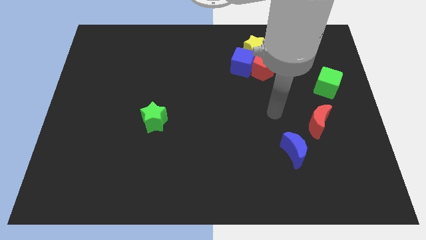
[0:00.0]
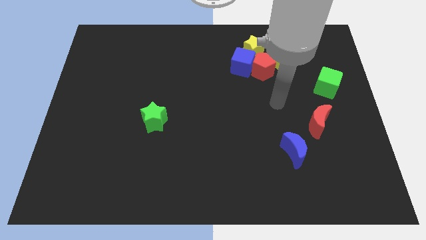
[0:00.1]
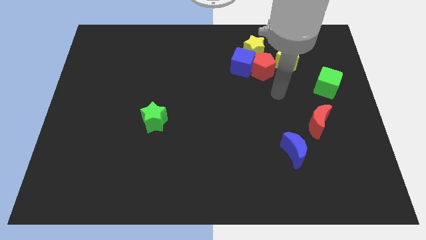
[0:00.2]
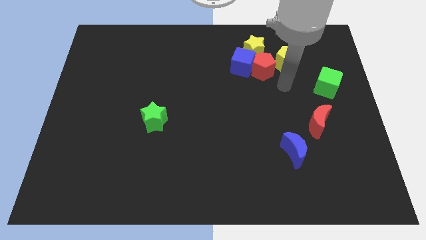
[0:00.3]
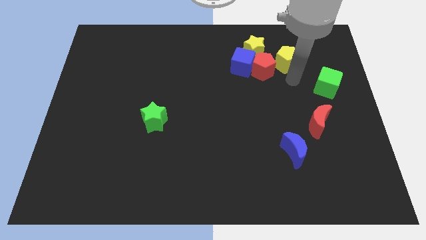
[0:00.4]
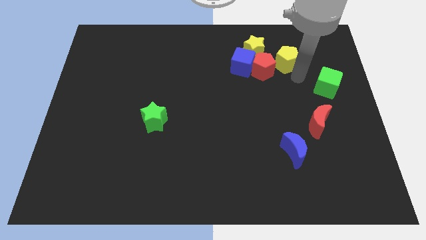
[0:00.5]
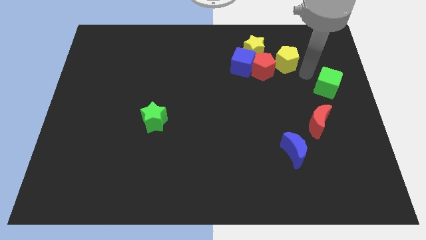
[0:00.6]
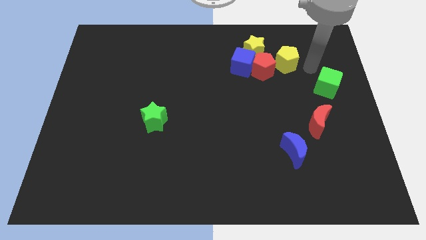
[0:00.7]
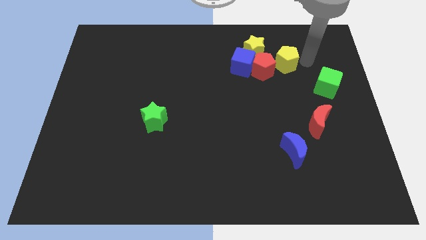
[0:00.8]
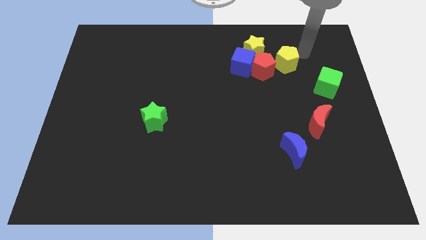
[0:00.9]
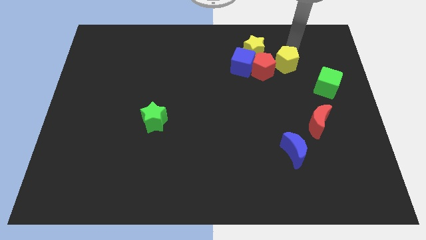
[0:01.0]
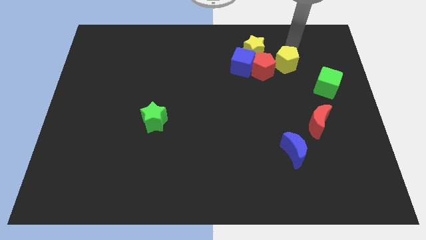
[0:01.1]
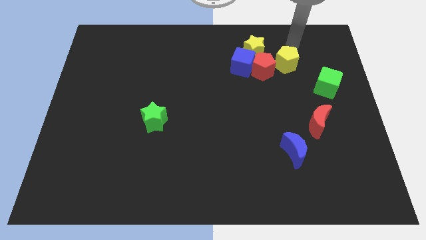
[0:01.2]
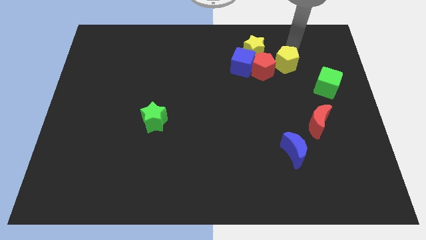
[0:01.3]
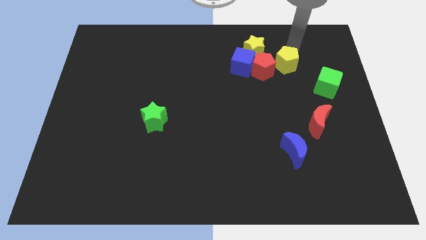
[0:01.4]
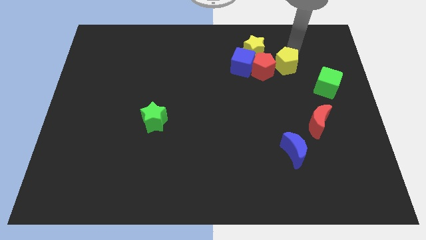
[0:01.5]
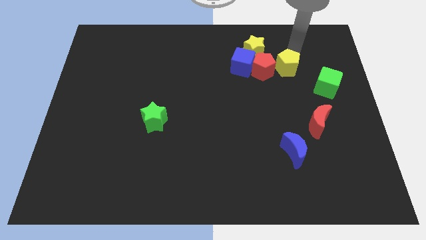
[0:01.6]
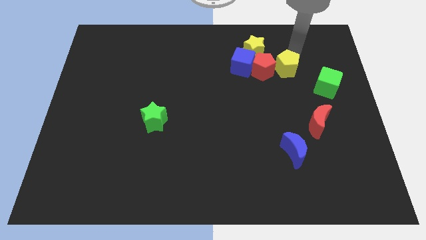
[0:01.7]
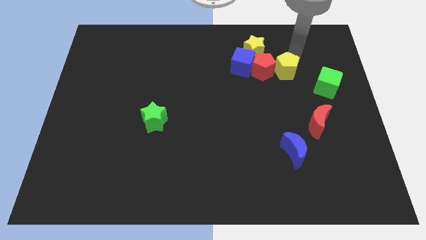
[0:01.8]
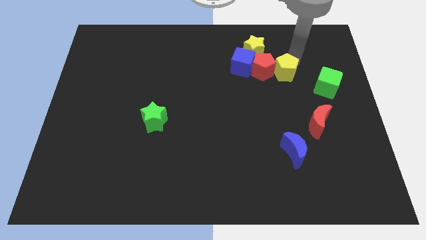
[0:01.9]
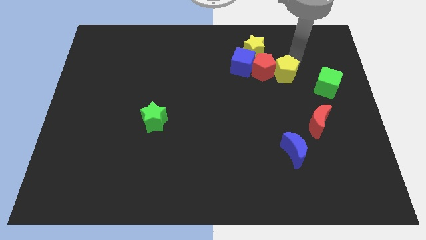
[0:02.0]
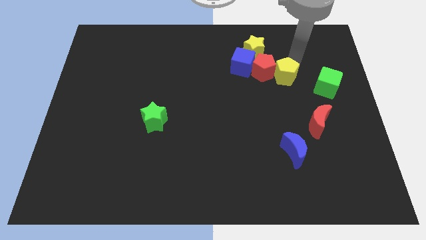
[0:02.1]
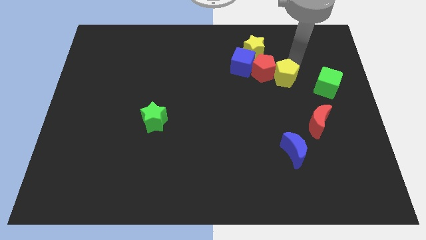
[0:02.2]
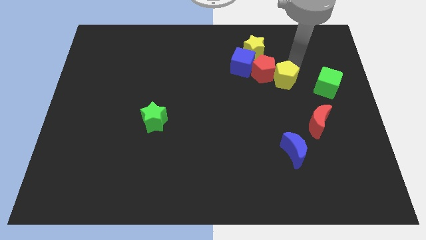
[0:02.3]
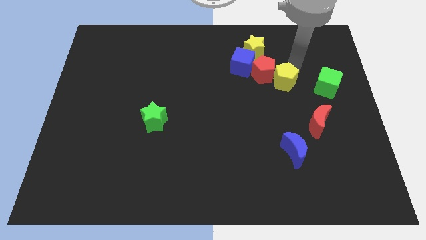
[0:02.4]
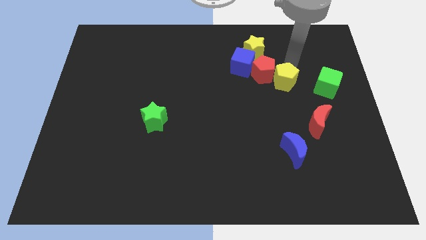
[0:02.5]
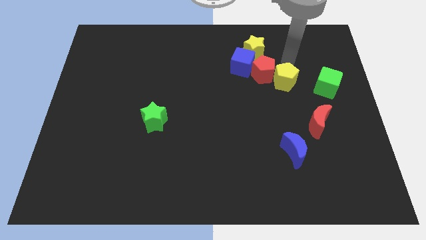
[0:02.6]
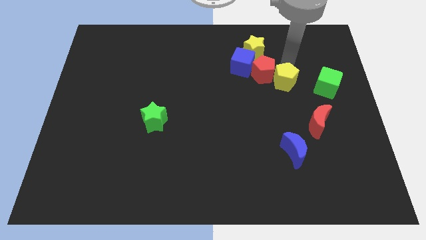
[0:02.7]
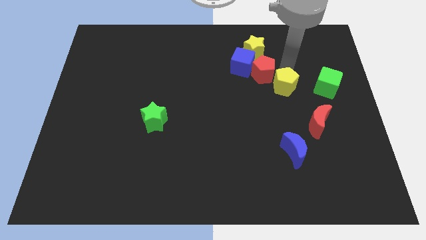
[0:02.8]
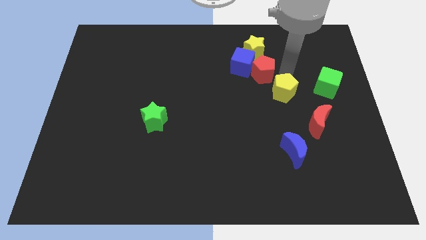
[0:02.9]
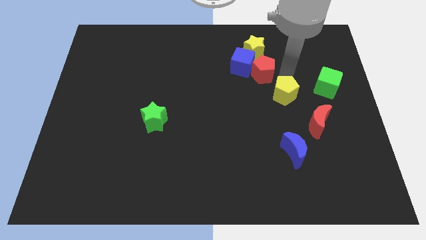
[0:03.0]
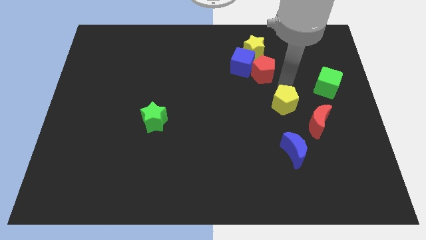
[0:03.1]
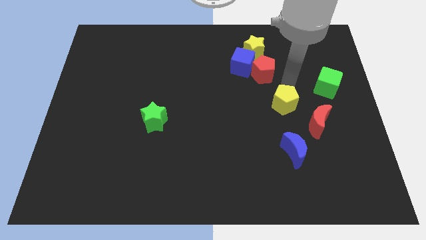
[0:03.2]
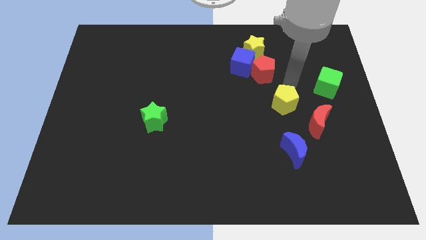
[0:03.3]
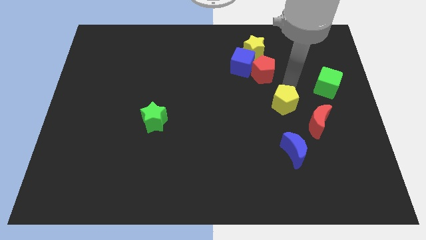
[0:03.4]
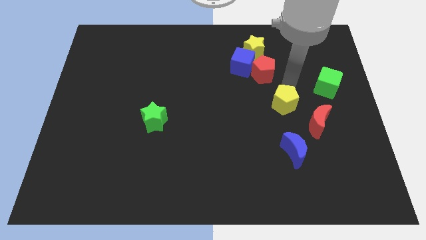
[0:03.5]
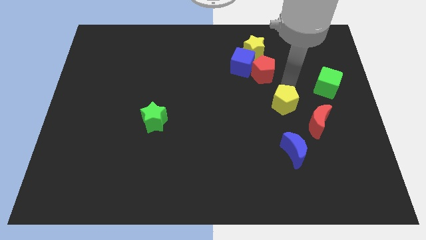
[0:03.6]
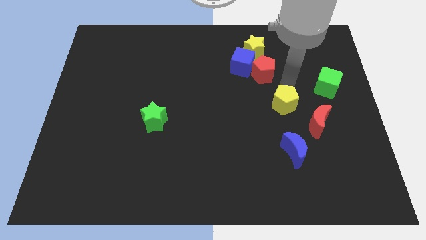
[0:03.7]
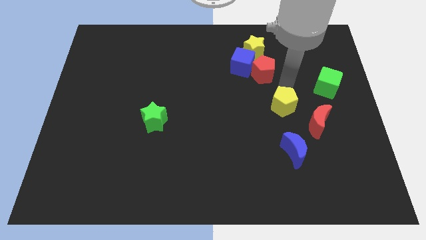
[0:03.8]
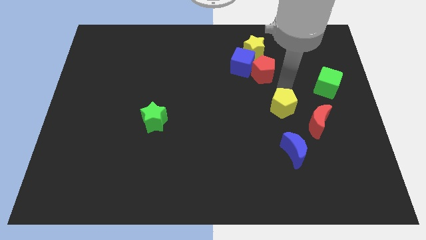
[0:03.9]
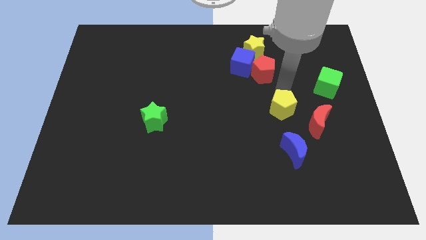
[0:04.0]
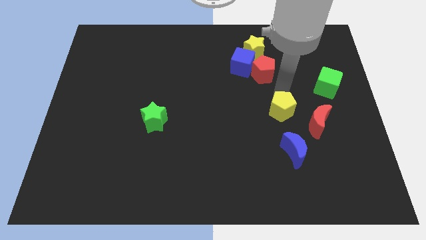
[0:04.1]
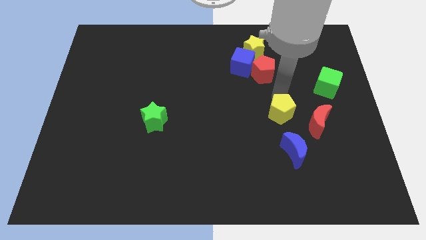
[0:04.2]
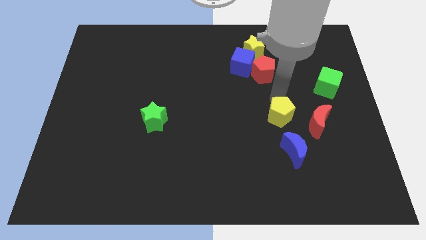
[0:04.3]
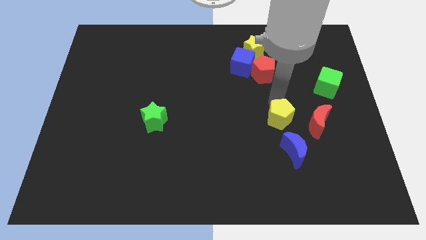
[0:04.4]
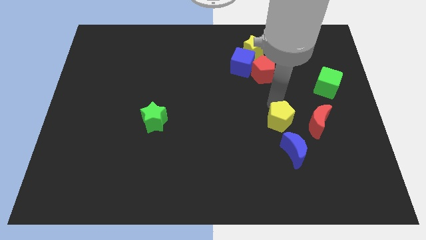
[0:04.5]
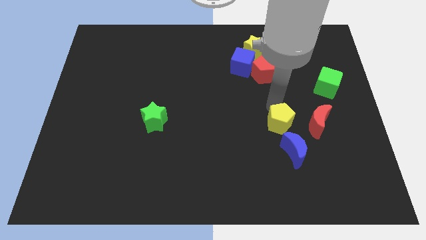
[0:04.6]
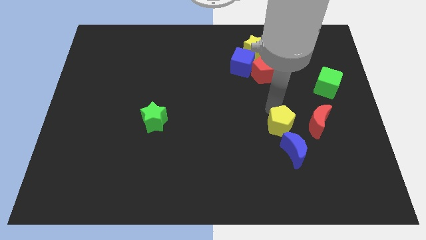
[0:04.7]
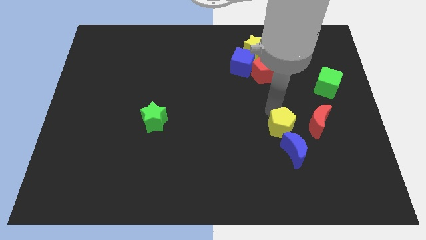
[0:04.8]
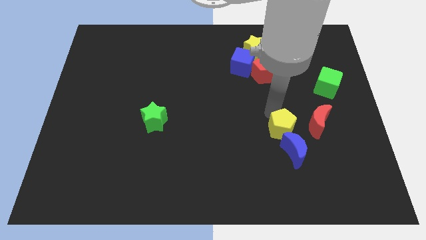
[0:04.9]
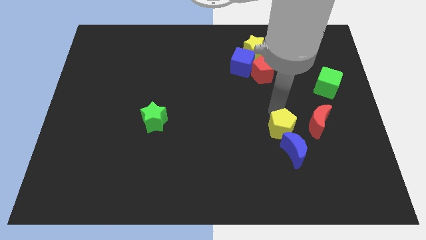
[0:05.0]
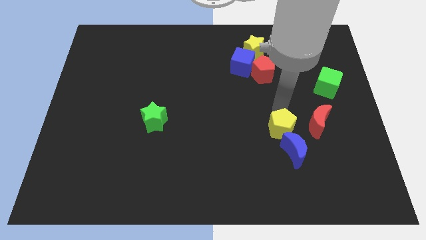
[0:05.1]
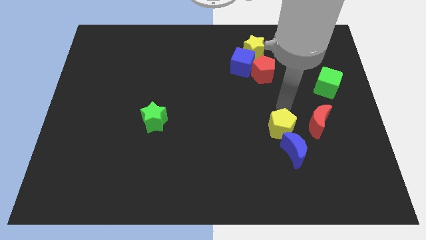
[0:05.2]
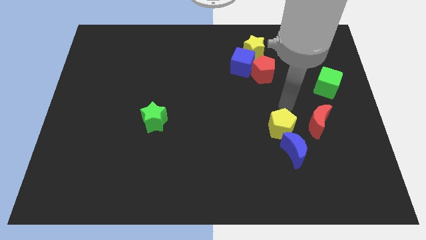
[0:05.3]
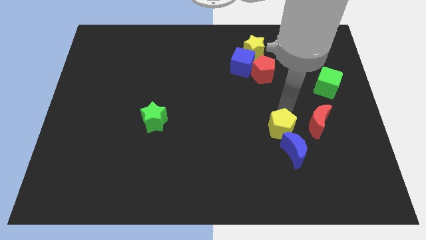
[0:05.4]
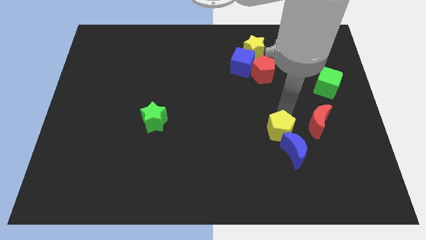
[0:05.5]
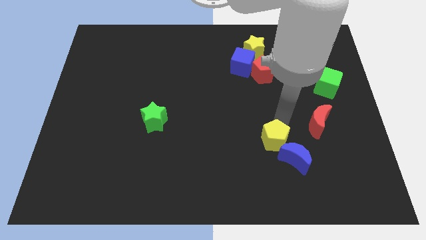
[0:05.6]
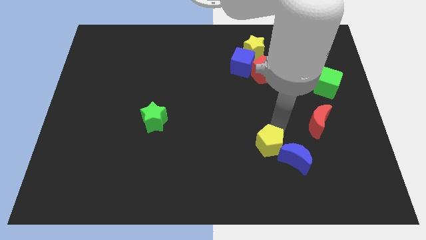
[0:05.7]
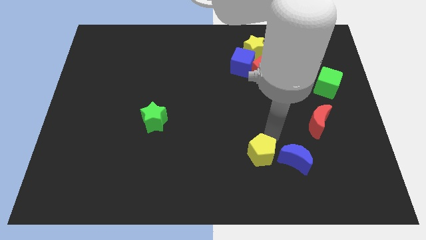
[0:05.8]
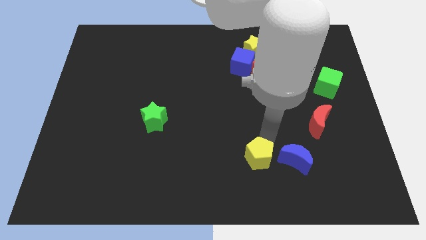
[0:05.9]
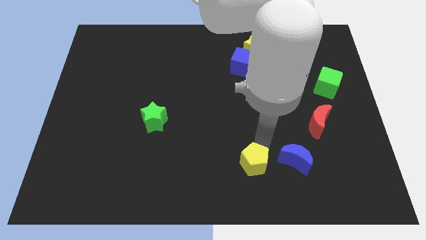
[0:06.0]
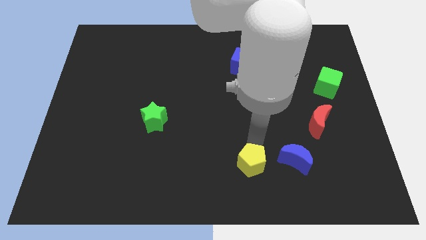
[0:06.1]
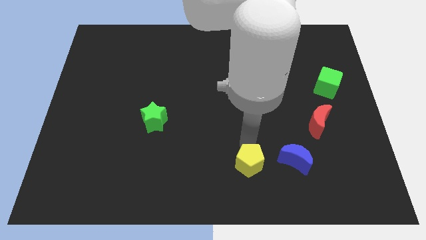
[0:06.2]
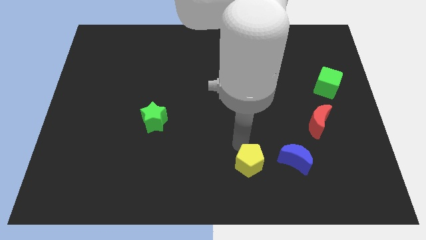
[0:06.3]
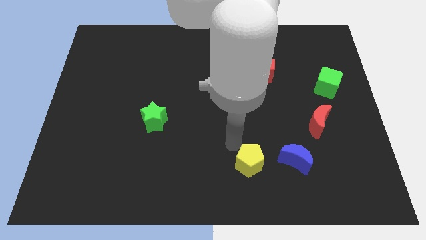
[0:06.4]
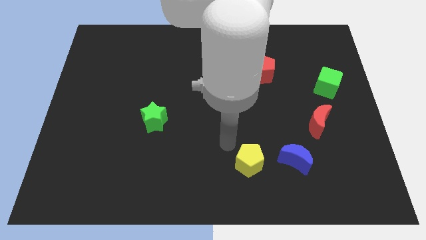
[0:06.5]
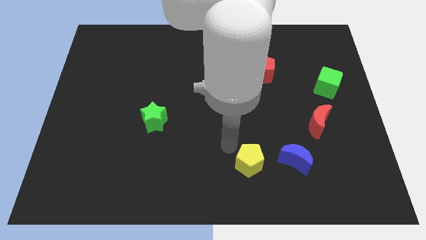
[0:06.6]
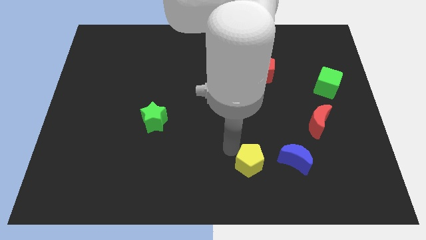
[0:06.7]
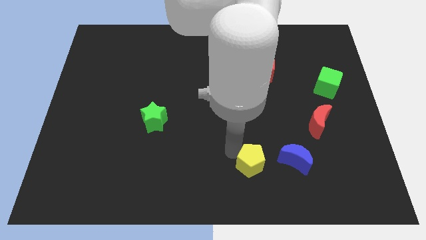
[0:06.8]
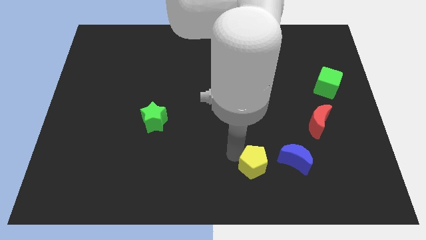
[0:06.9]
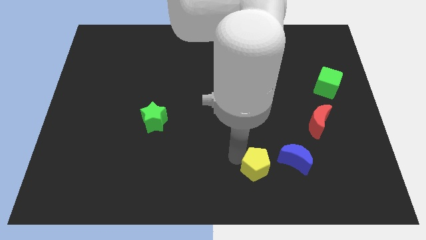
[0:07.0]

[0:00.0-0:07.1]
push the yellow pentagon to the bottom left side of the blue moon

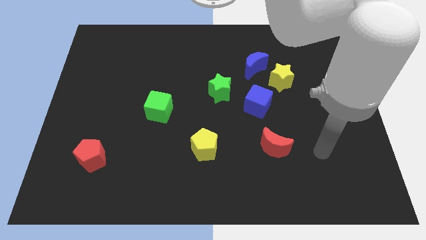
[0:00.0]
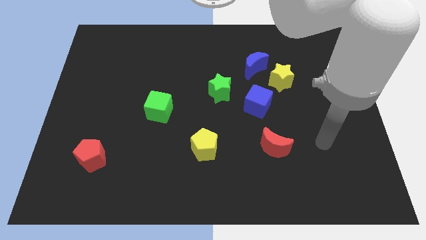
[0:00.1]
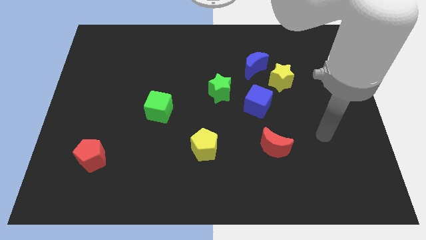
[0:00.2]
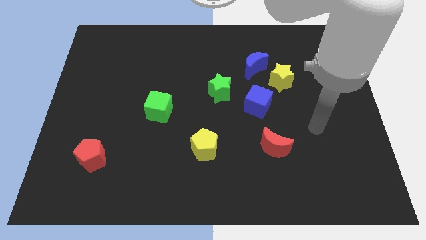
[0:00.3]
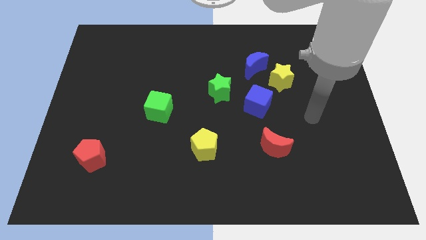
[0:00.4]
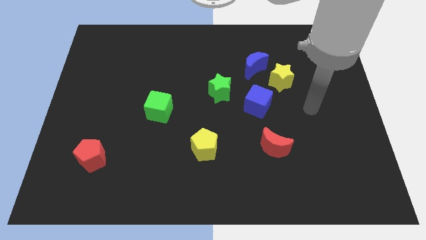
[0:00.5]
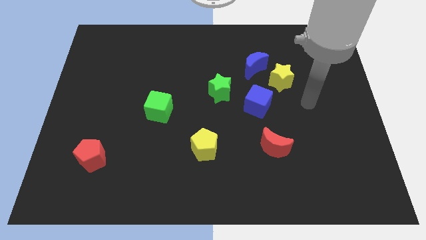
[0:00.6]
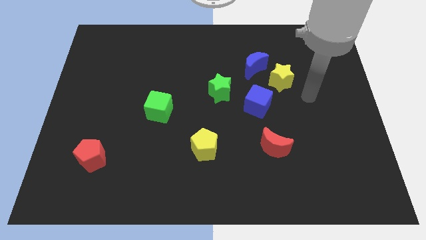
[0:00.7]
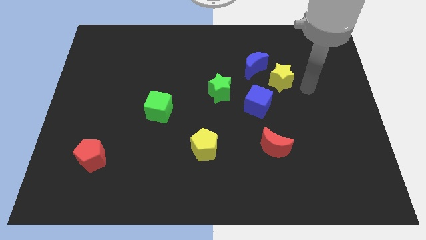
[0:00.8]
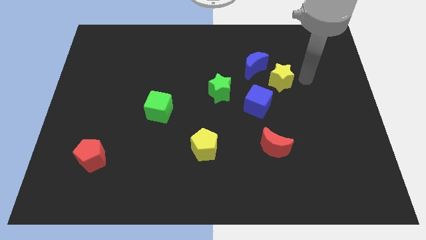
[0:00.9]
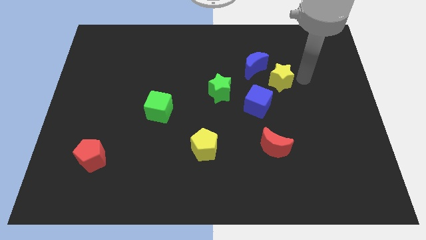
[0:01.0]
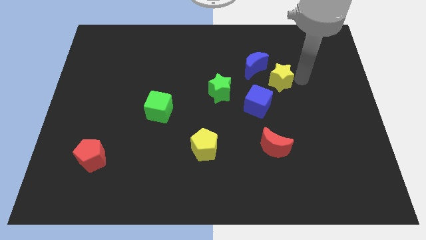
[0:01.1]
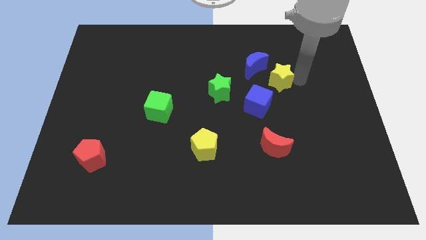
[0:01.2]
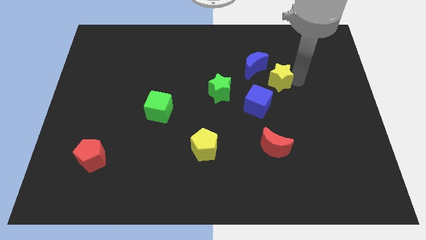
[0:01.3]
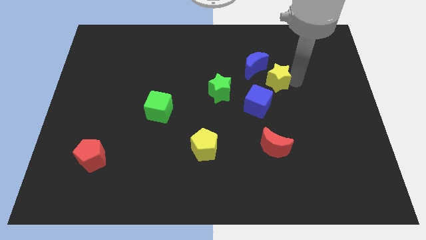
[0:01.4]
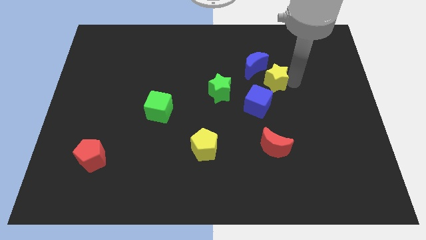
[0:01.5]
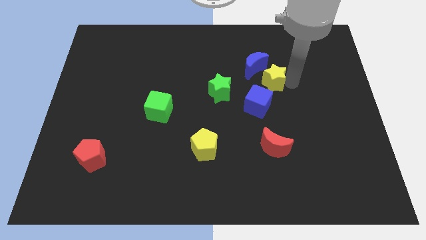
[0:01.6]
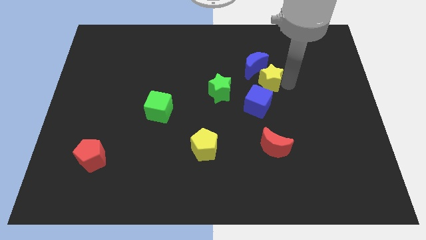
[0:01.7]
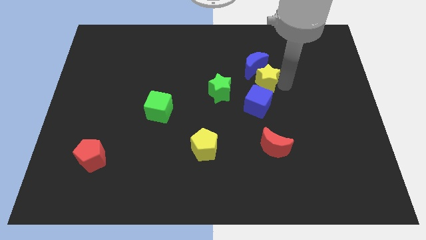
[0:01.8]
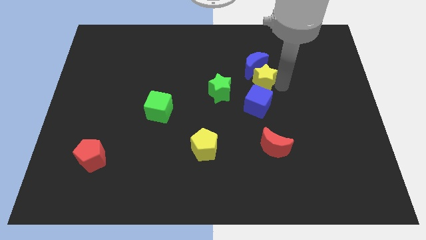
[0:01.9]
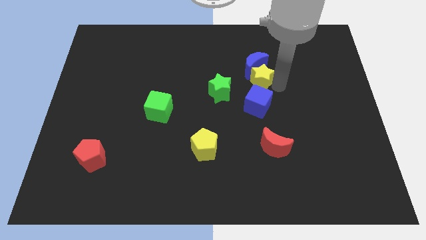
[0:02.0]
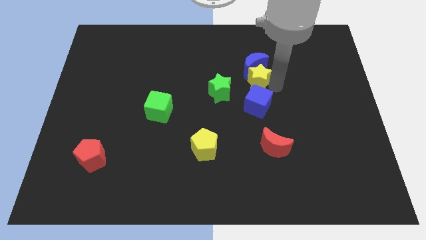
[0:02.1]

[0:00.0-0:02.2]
push the yellow star to the top right of the green star
